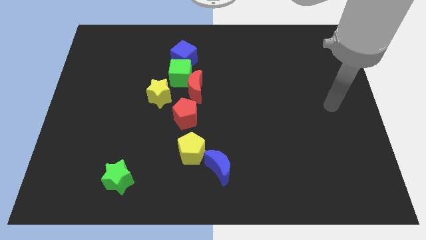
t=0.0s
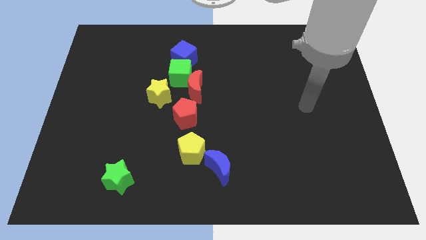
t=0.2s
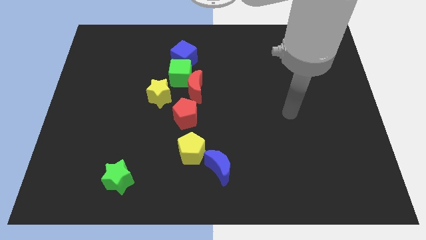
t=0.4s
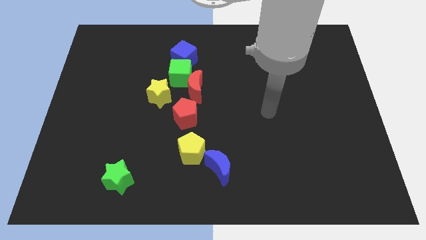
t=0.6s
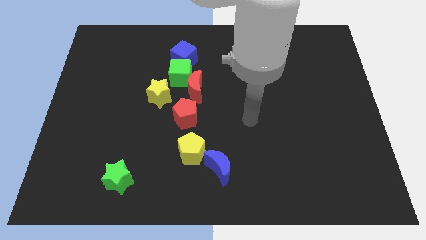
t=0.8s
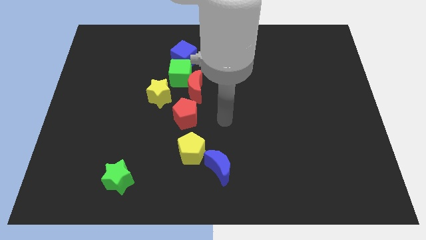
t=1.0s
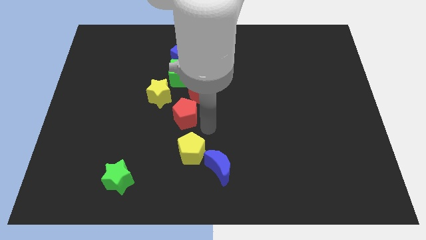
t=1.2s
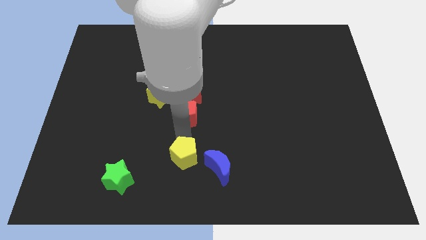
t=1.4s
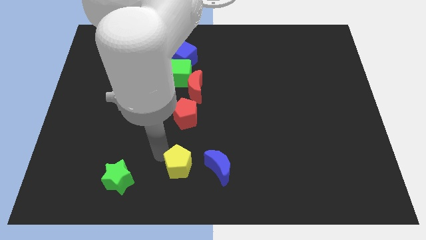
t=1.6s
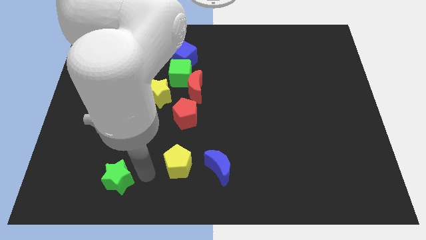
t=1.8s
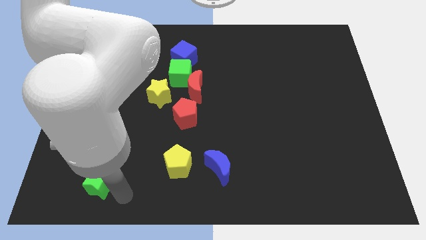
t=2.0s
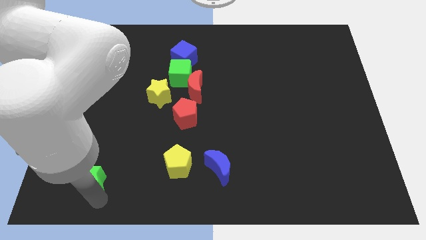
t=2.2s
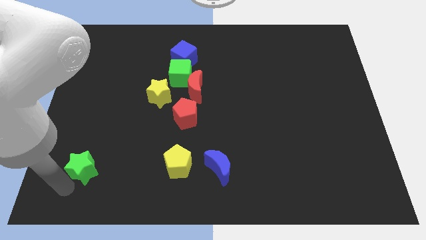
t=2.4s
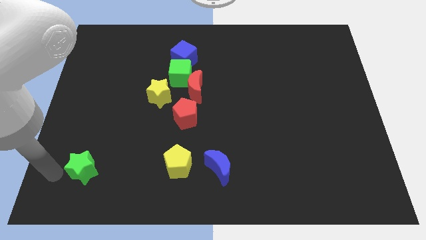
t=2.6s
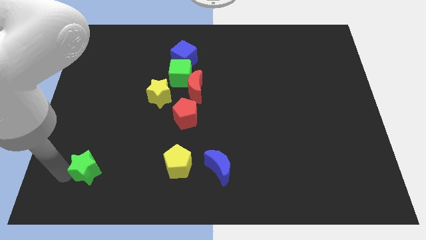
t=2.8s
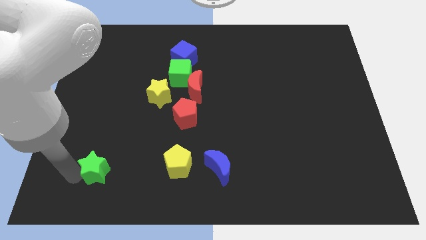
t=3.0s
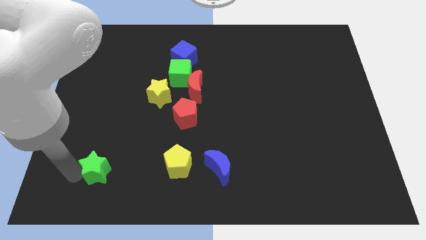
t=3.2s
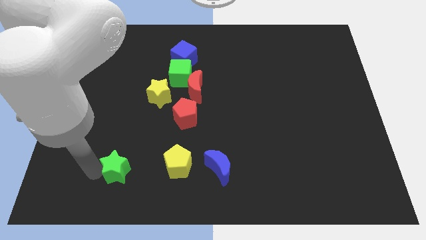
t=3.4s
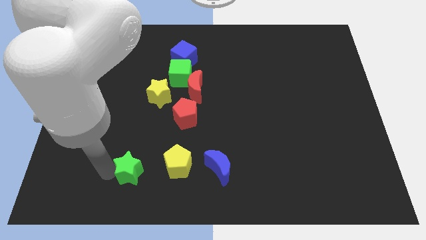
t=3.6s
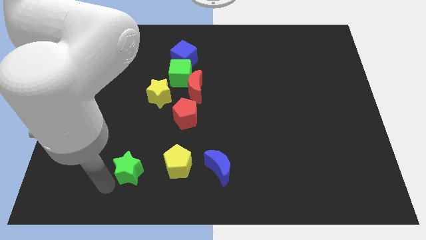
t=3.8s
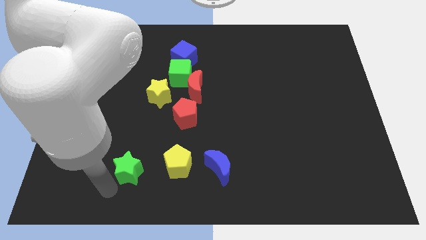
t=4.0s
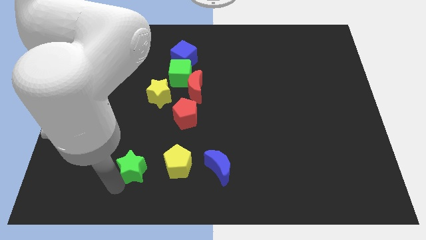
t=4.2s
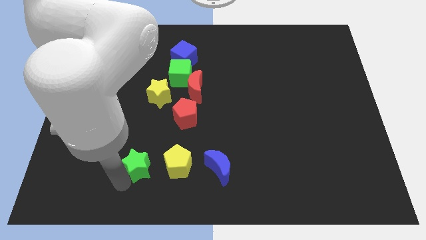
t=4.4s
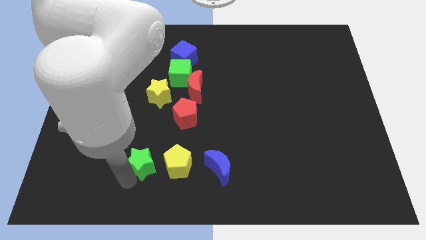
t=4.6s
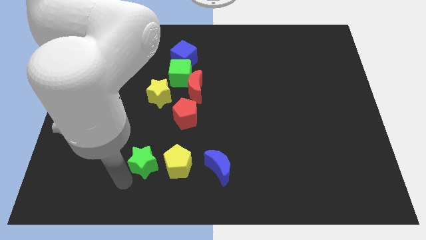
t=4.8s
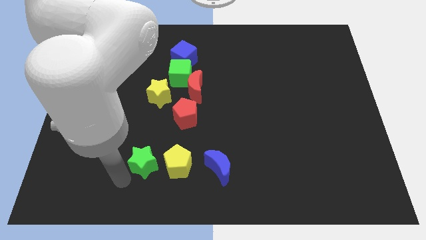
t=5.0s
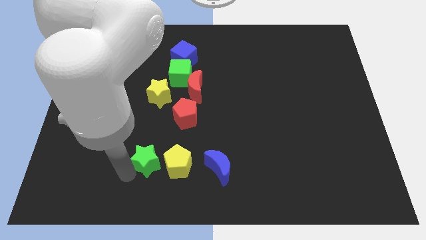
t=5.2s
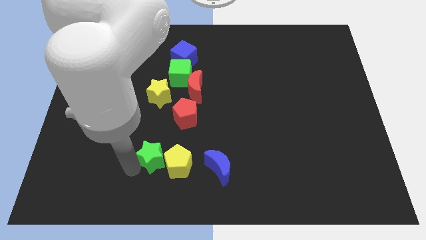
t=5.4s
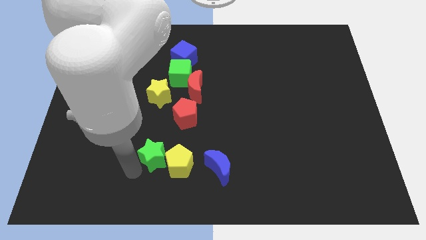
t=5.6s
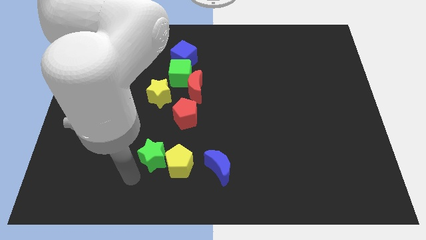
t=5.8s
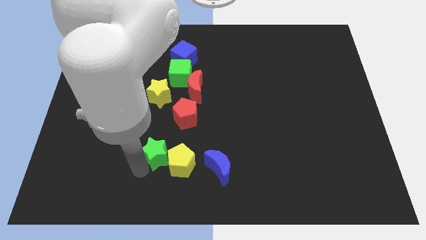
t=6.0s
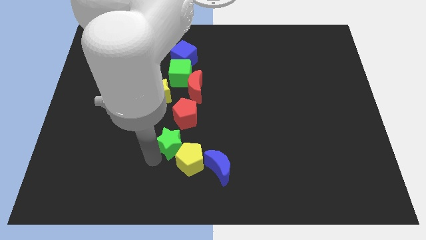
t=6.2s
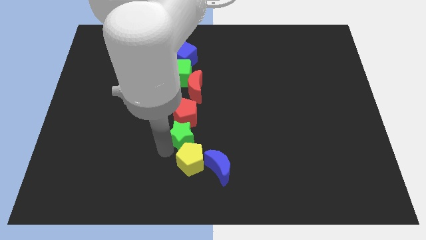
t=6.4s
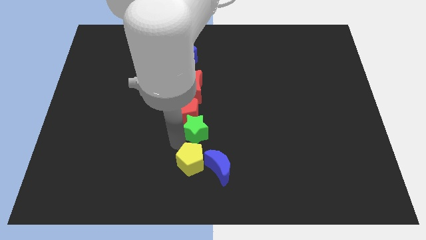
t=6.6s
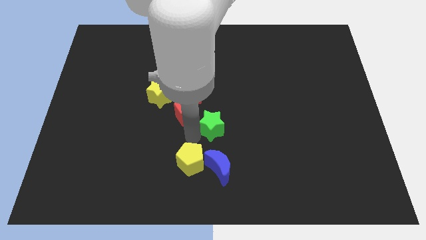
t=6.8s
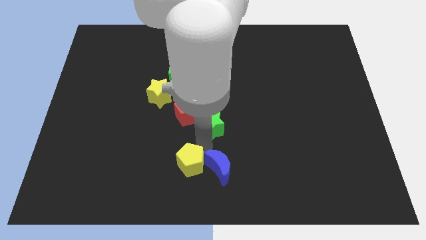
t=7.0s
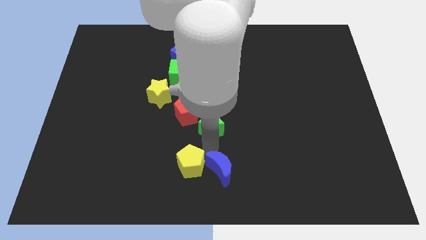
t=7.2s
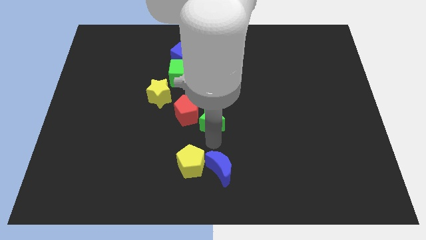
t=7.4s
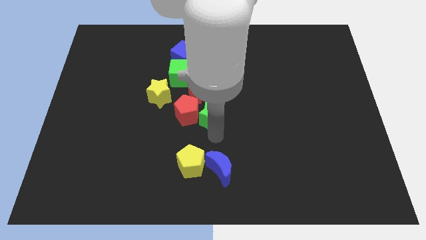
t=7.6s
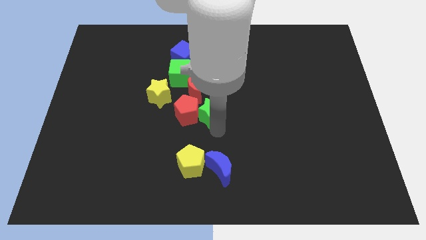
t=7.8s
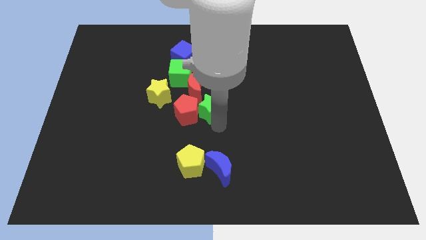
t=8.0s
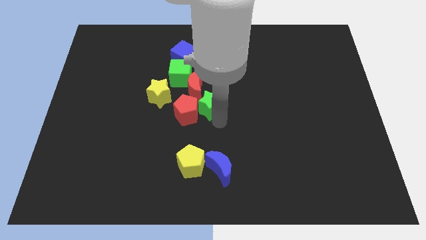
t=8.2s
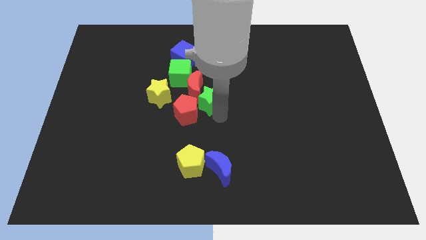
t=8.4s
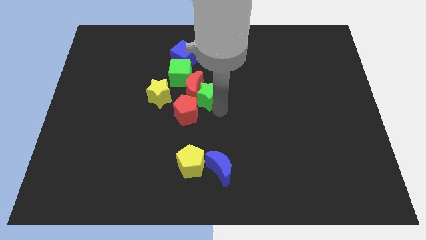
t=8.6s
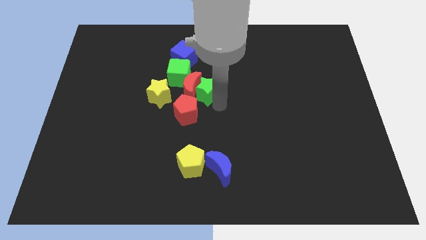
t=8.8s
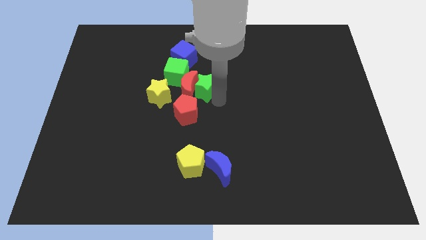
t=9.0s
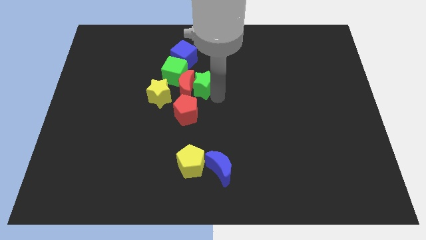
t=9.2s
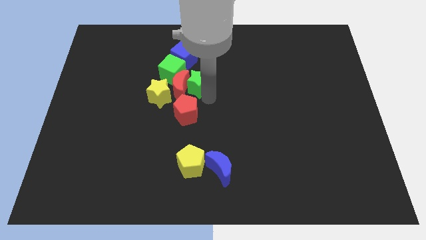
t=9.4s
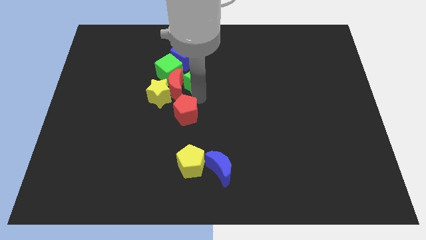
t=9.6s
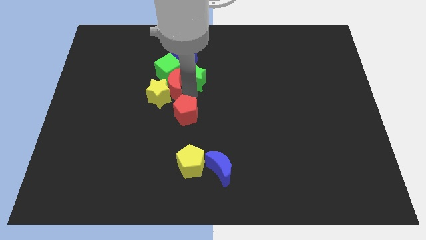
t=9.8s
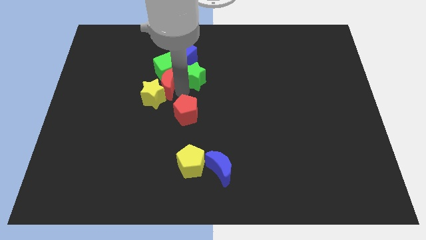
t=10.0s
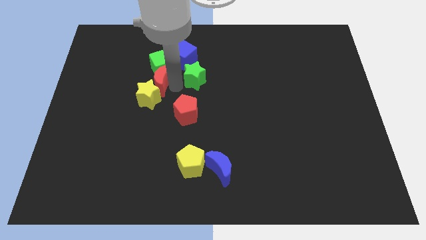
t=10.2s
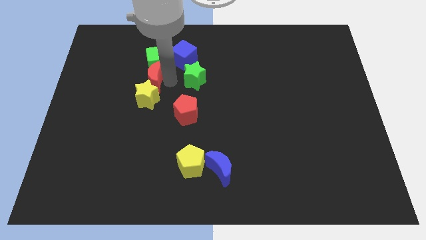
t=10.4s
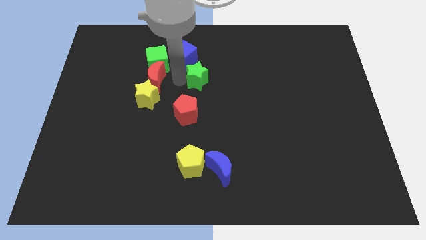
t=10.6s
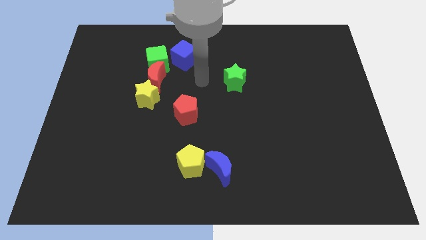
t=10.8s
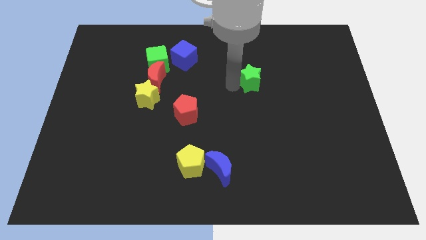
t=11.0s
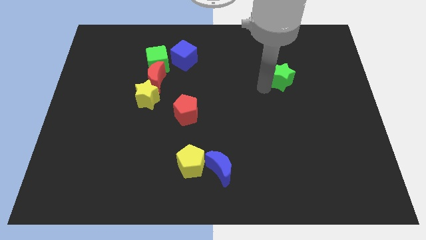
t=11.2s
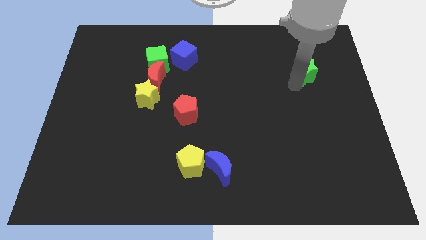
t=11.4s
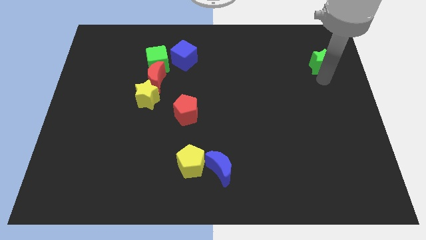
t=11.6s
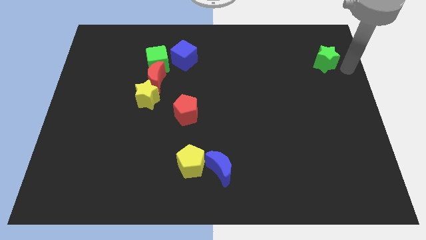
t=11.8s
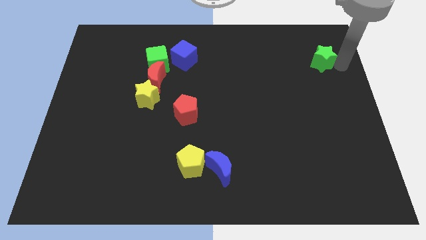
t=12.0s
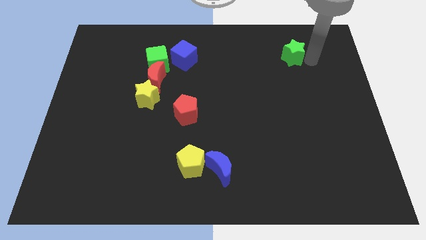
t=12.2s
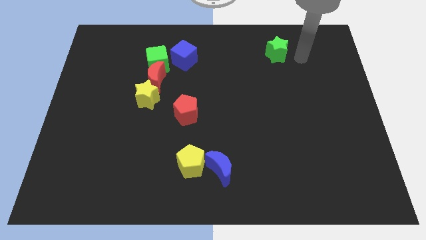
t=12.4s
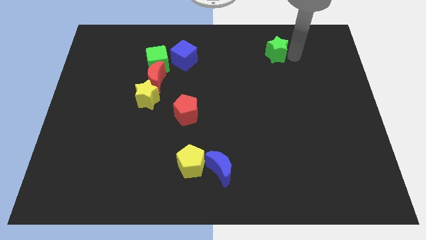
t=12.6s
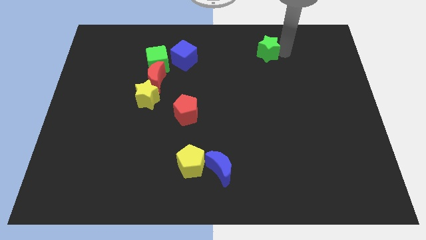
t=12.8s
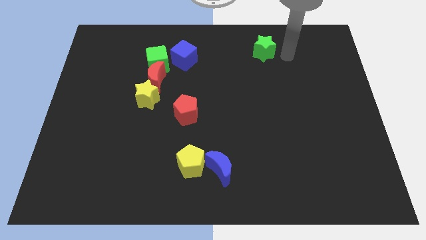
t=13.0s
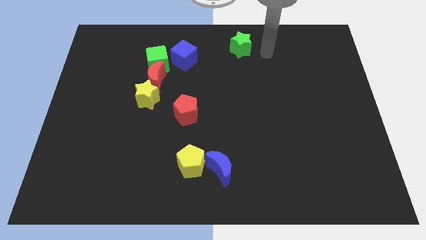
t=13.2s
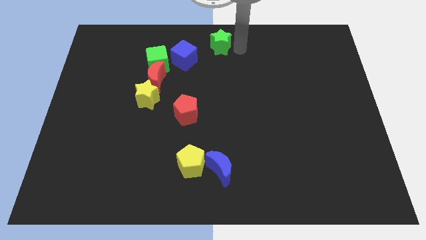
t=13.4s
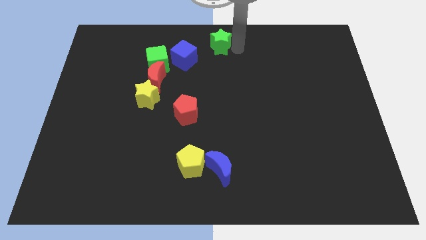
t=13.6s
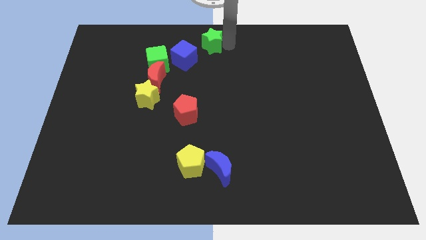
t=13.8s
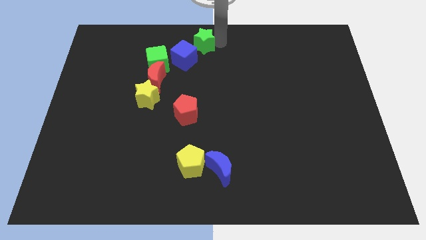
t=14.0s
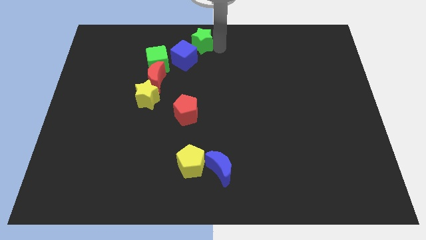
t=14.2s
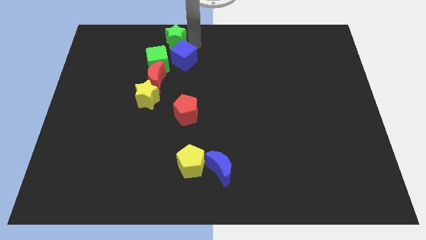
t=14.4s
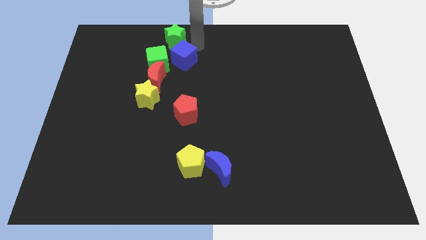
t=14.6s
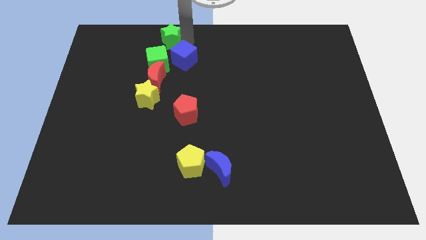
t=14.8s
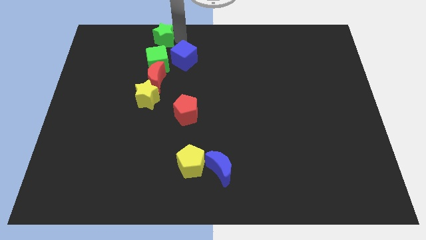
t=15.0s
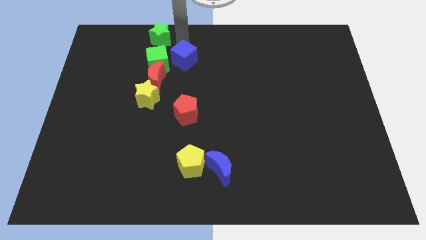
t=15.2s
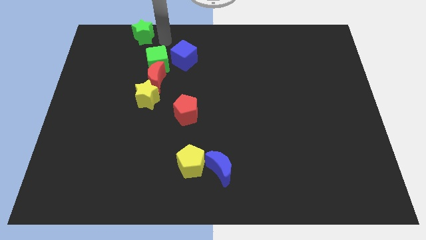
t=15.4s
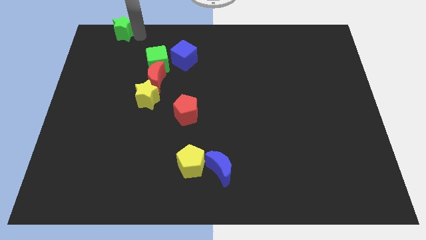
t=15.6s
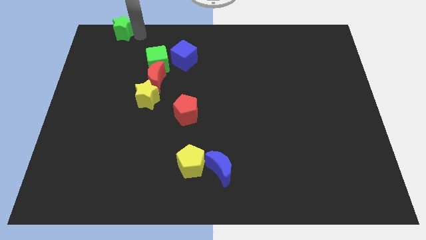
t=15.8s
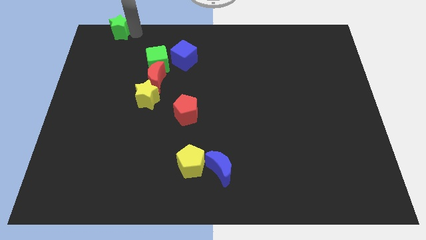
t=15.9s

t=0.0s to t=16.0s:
push the green star to the upper left corner
